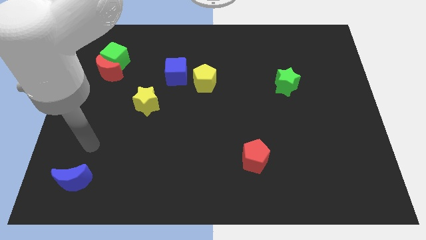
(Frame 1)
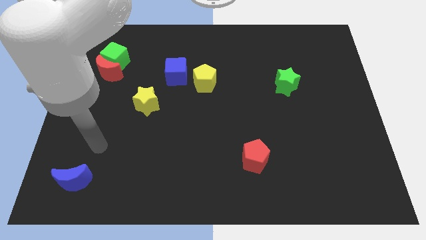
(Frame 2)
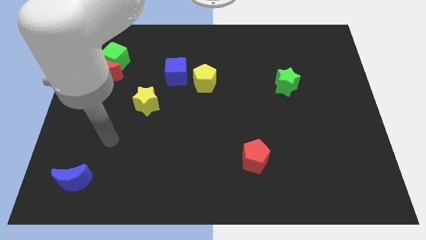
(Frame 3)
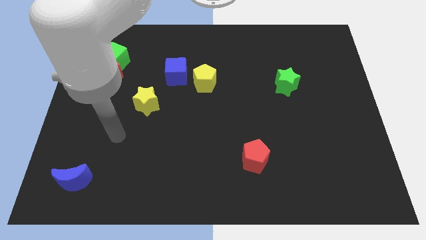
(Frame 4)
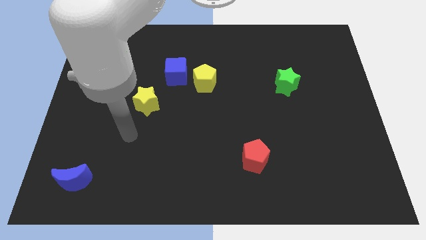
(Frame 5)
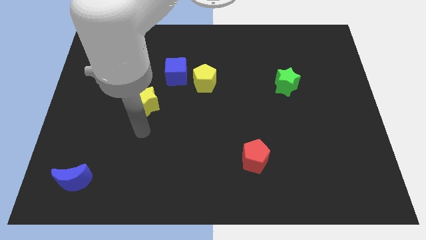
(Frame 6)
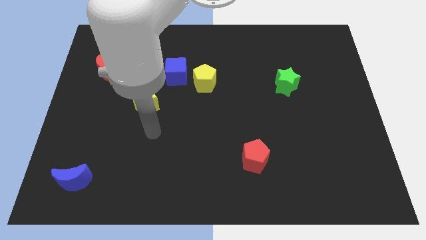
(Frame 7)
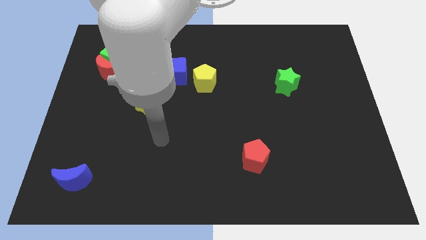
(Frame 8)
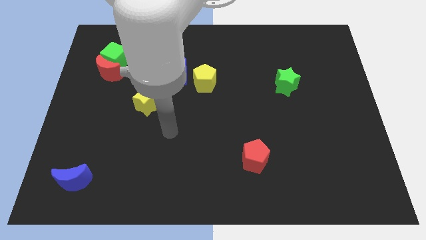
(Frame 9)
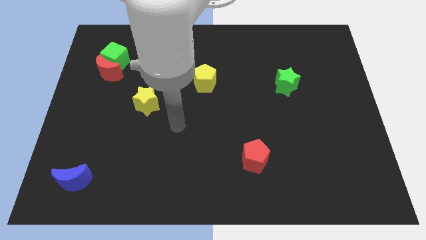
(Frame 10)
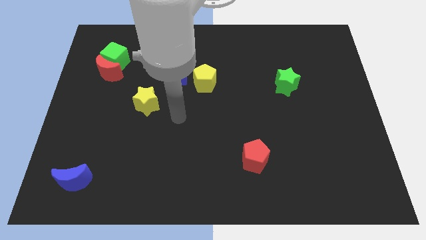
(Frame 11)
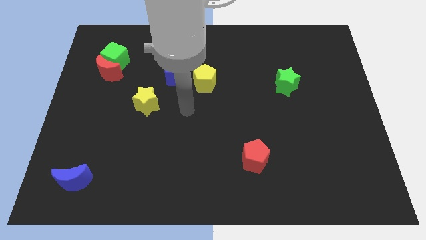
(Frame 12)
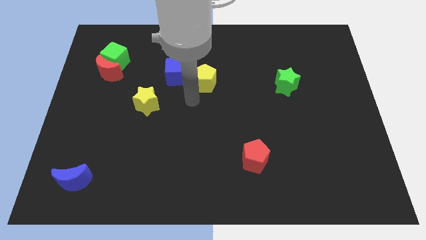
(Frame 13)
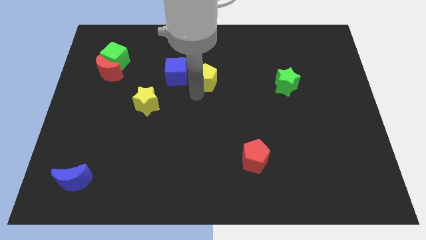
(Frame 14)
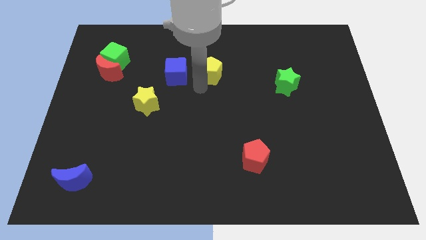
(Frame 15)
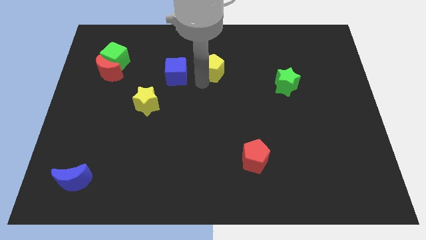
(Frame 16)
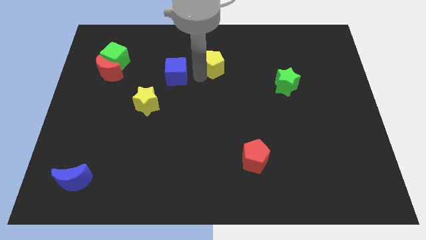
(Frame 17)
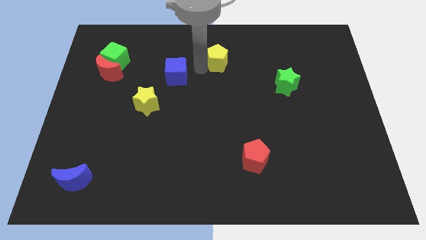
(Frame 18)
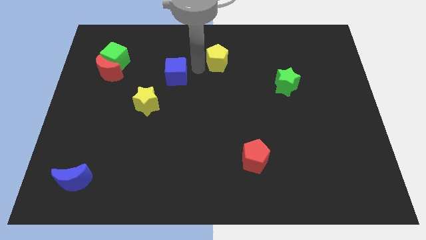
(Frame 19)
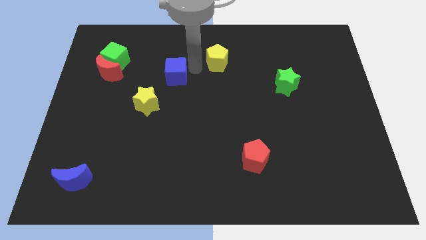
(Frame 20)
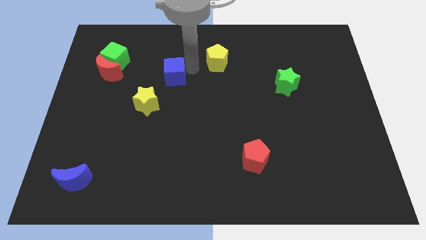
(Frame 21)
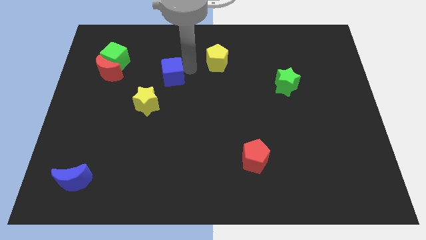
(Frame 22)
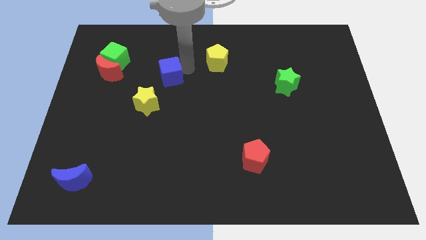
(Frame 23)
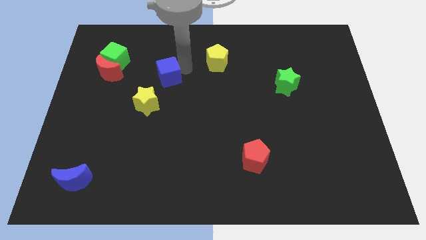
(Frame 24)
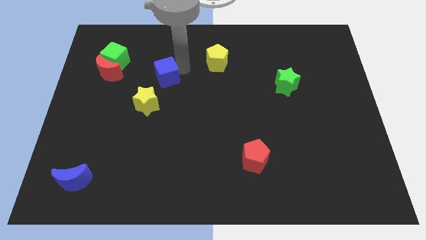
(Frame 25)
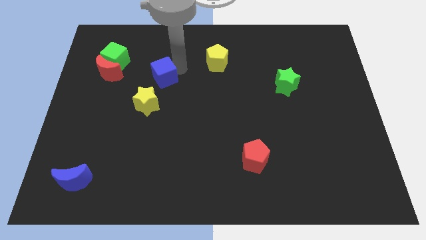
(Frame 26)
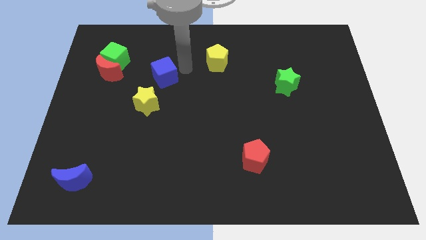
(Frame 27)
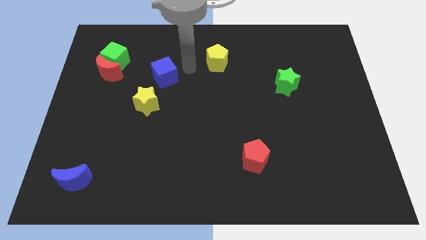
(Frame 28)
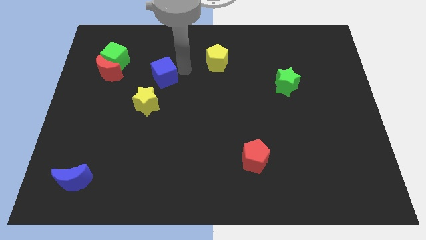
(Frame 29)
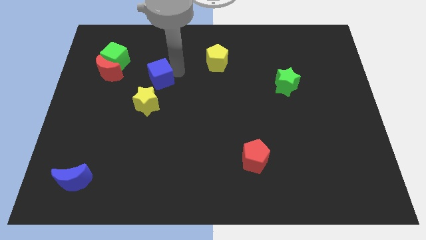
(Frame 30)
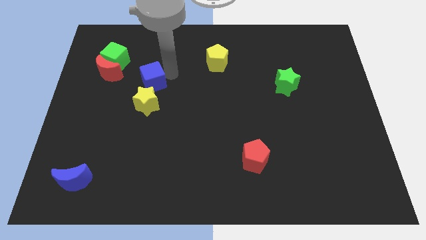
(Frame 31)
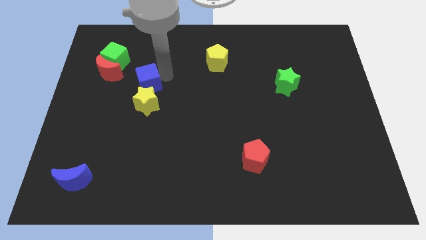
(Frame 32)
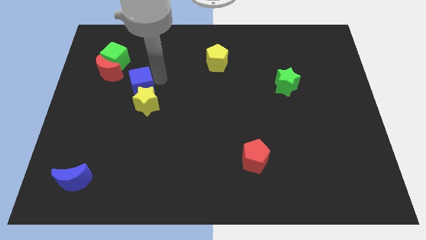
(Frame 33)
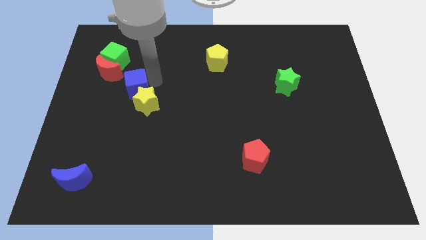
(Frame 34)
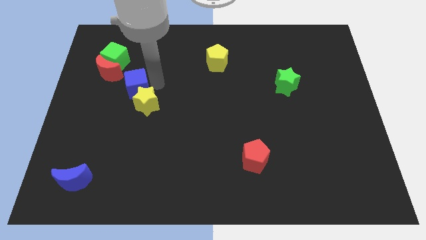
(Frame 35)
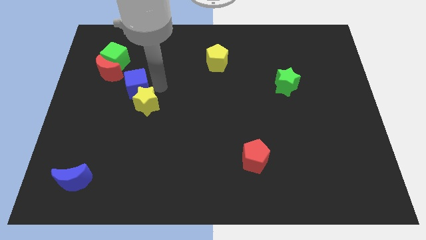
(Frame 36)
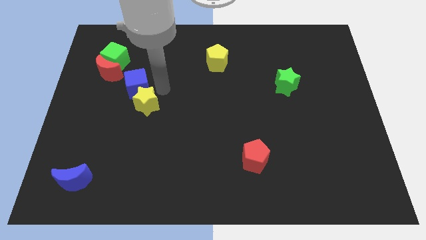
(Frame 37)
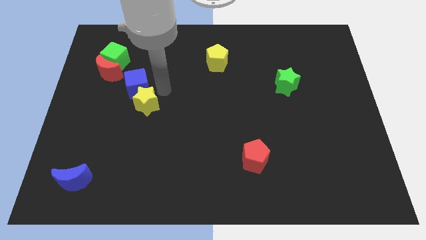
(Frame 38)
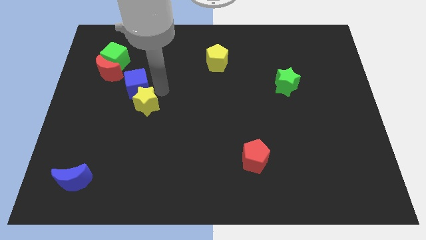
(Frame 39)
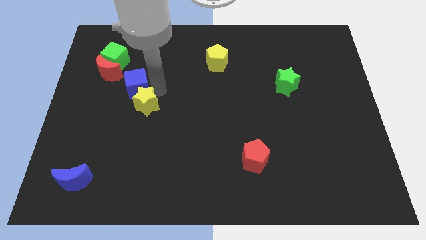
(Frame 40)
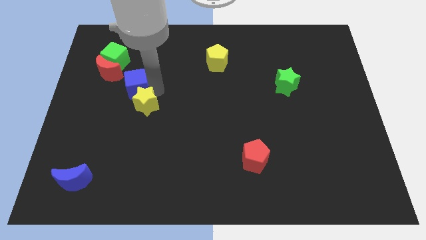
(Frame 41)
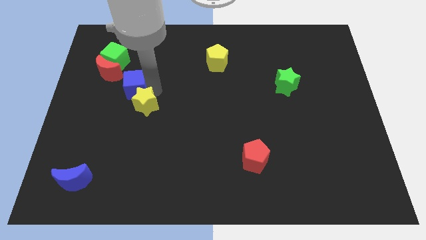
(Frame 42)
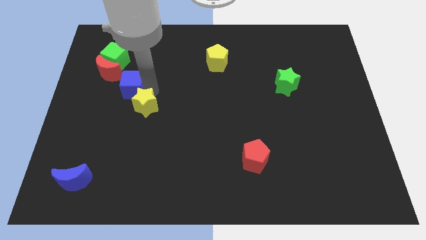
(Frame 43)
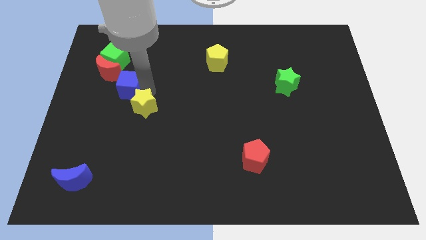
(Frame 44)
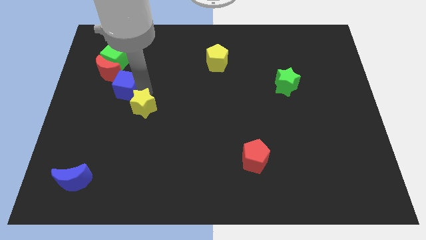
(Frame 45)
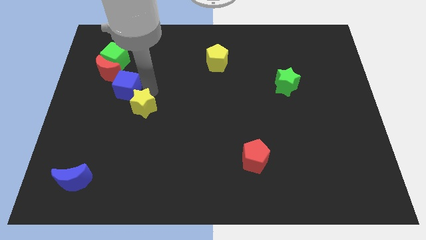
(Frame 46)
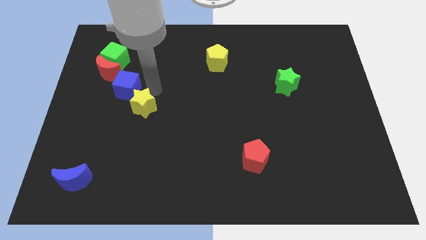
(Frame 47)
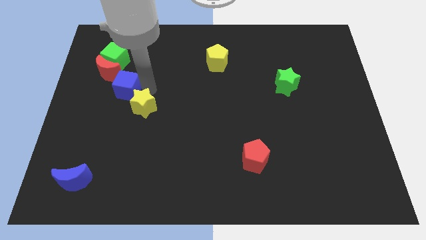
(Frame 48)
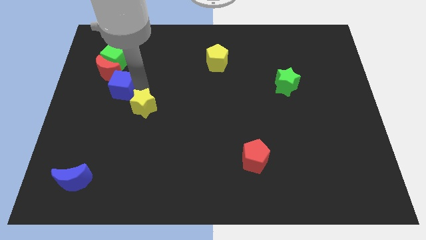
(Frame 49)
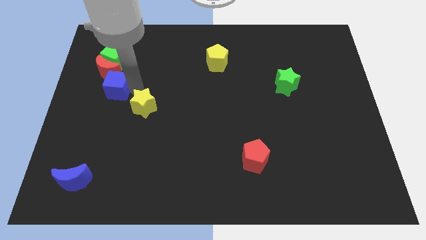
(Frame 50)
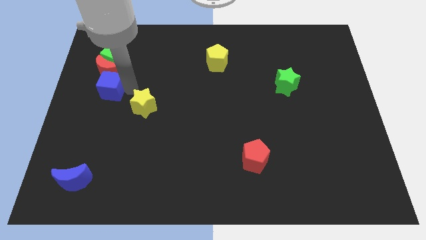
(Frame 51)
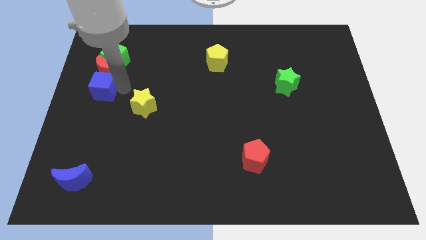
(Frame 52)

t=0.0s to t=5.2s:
move the blue cube to the left side of the board

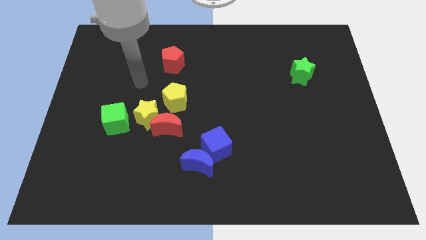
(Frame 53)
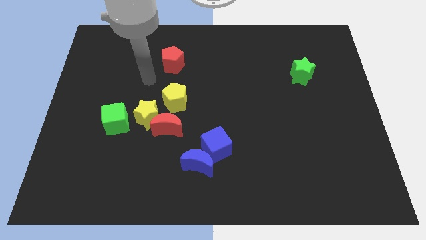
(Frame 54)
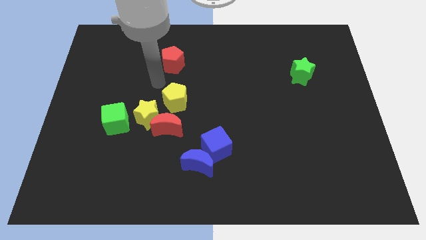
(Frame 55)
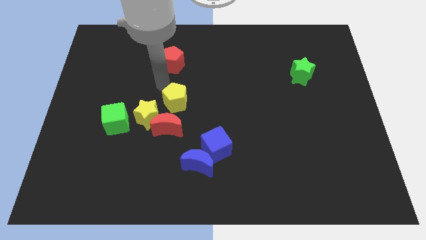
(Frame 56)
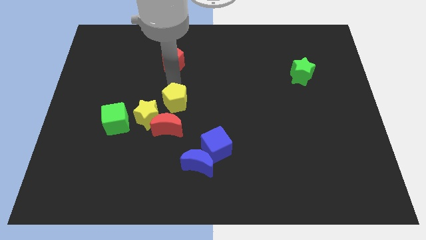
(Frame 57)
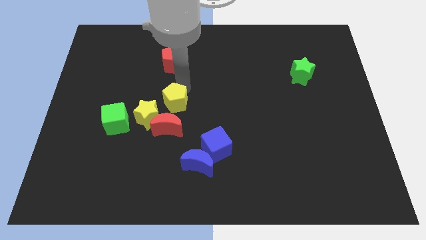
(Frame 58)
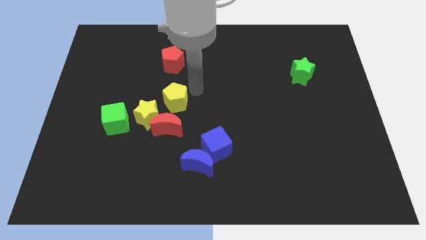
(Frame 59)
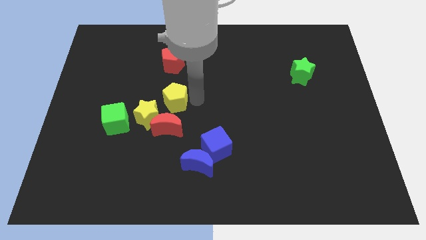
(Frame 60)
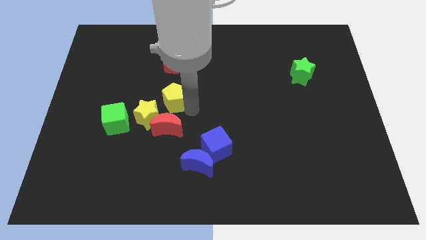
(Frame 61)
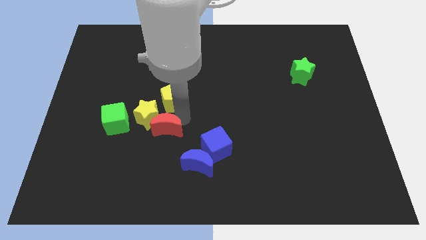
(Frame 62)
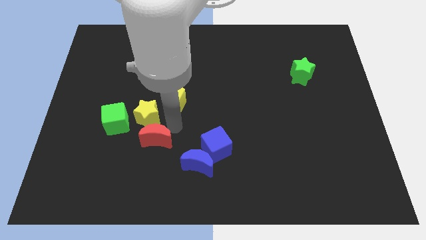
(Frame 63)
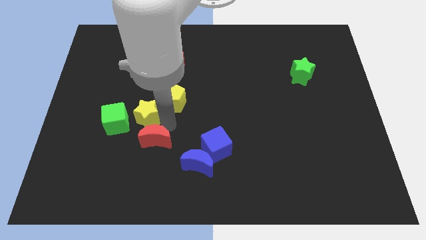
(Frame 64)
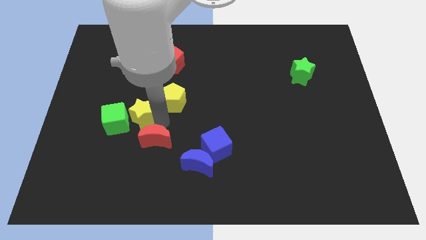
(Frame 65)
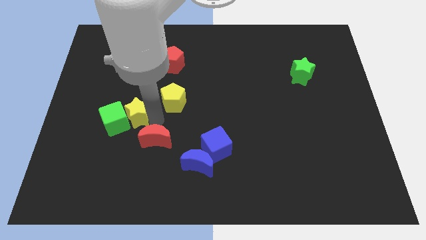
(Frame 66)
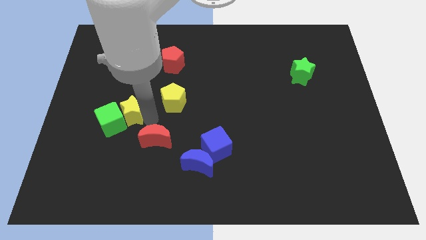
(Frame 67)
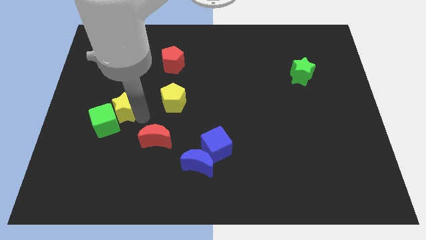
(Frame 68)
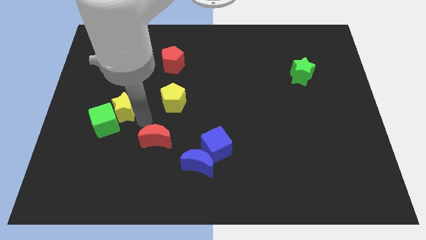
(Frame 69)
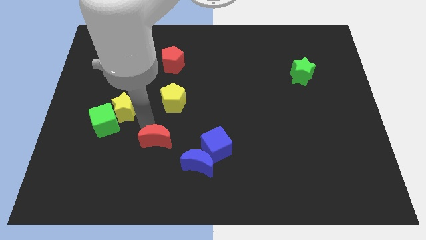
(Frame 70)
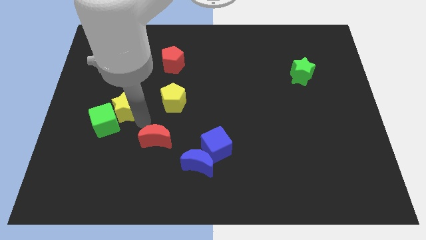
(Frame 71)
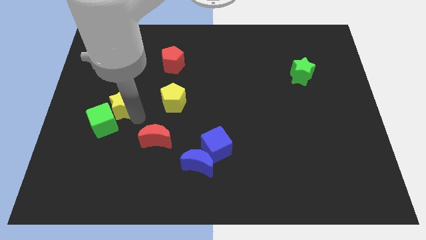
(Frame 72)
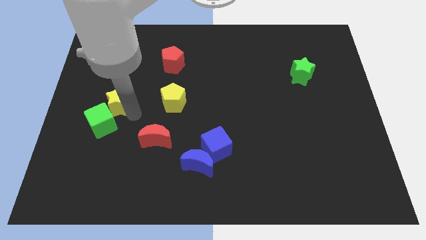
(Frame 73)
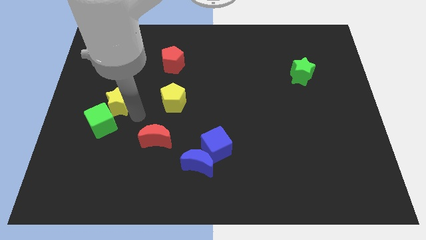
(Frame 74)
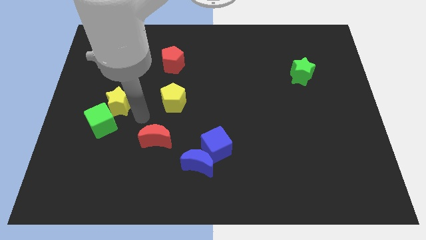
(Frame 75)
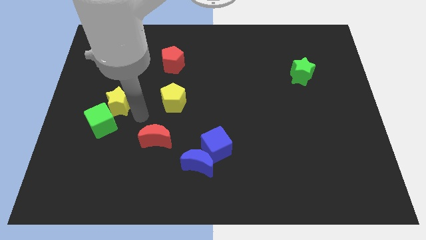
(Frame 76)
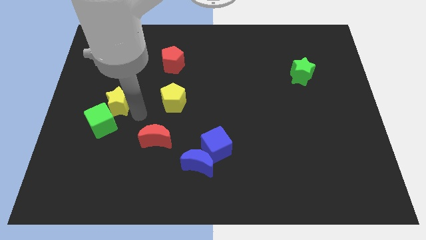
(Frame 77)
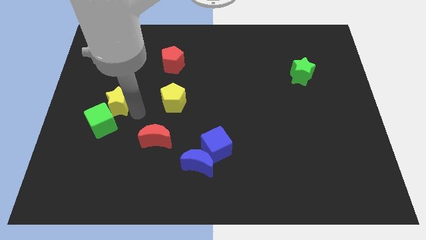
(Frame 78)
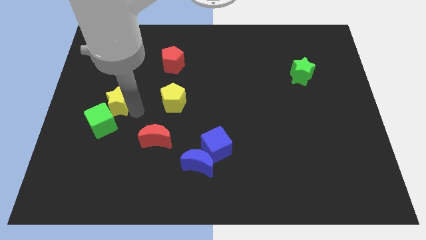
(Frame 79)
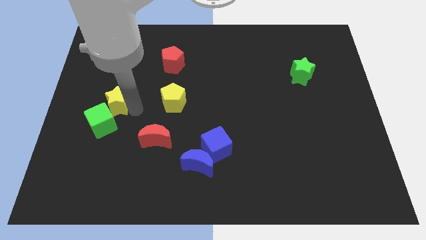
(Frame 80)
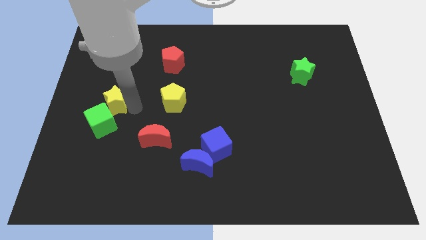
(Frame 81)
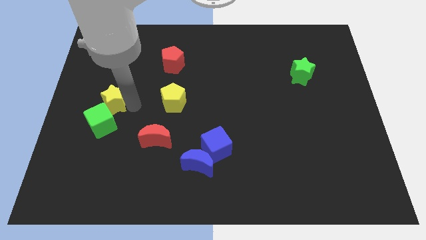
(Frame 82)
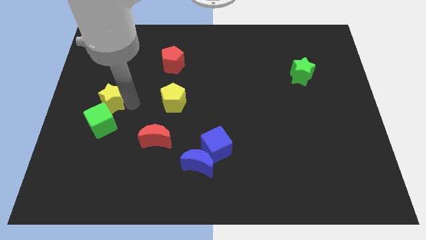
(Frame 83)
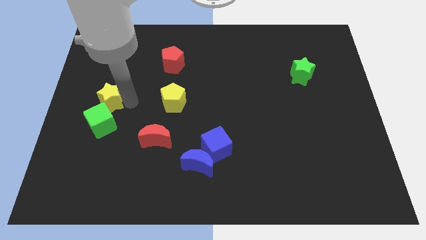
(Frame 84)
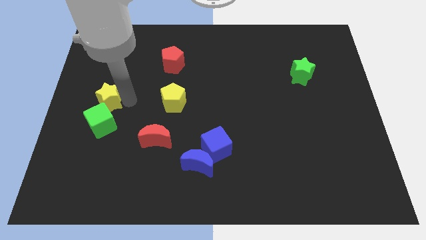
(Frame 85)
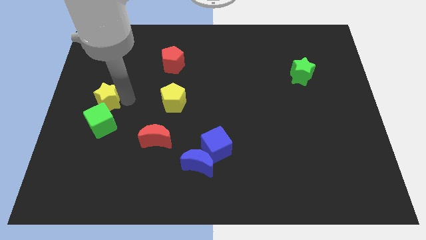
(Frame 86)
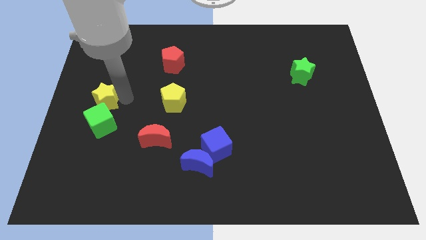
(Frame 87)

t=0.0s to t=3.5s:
slide the yellow star to the left side
